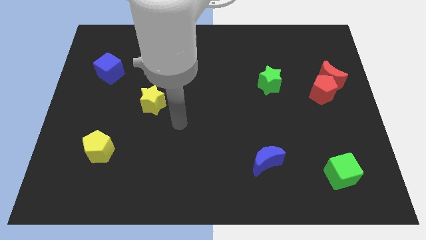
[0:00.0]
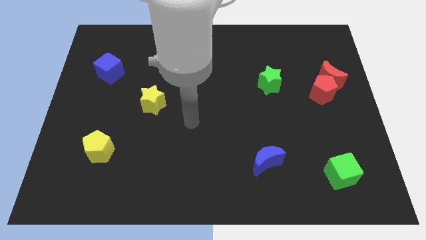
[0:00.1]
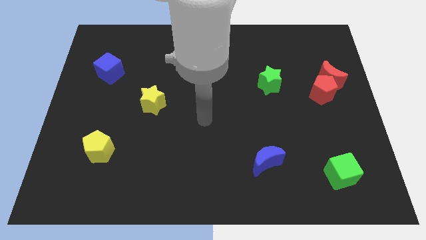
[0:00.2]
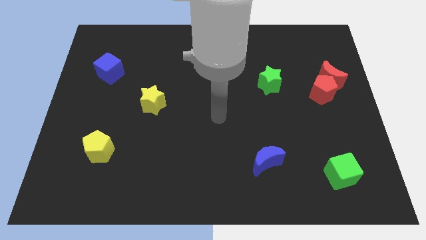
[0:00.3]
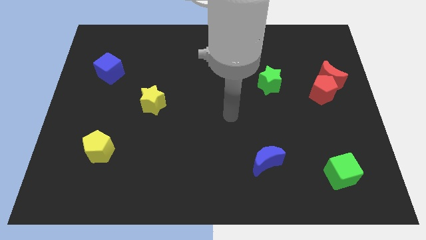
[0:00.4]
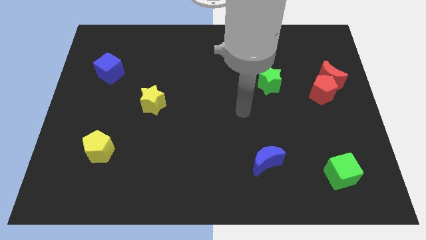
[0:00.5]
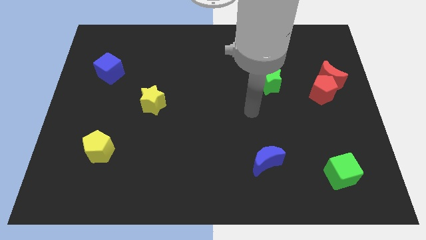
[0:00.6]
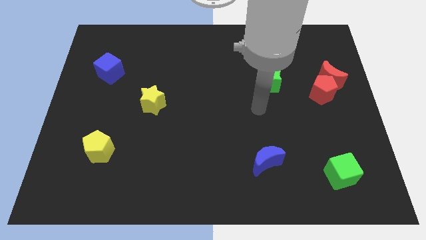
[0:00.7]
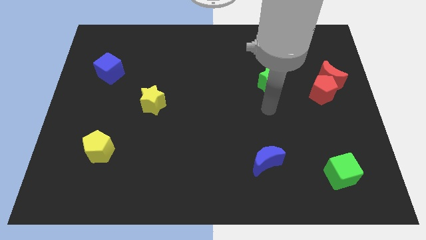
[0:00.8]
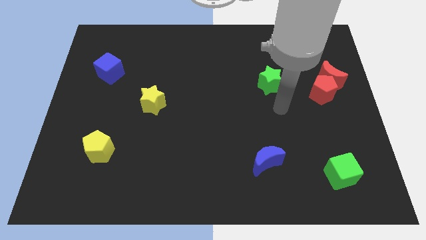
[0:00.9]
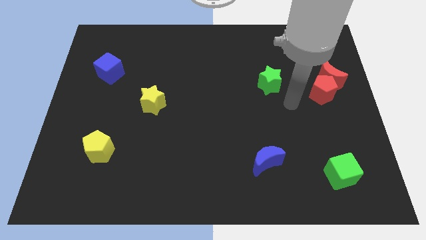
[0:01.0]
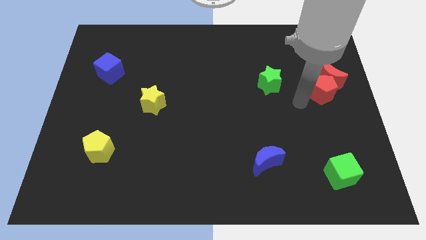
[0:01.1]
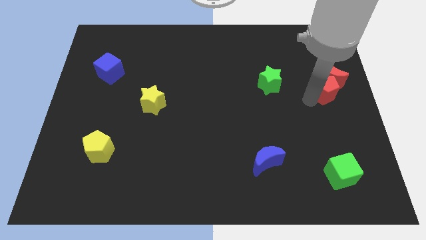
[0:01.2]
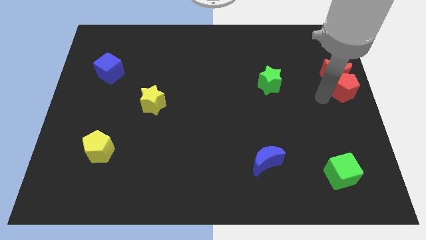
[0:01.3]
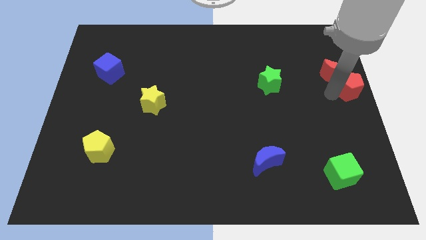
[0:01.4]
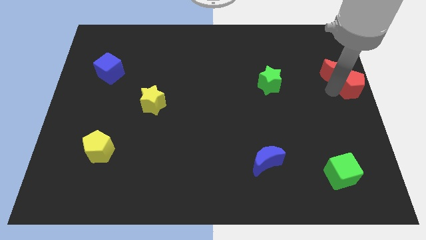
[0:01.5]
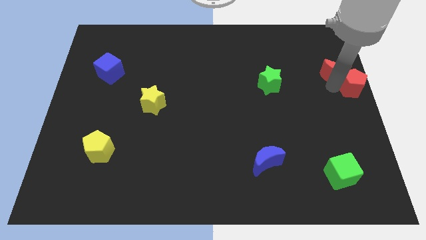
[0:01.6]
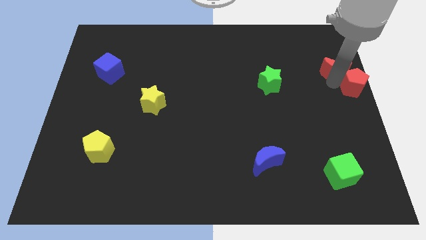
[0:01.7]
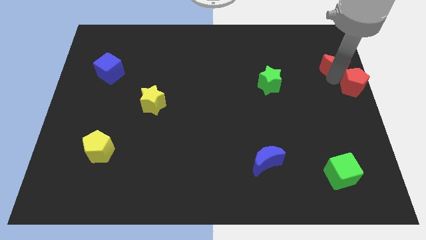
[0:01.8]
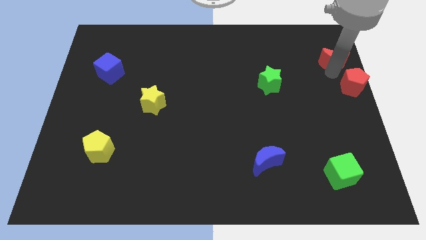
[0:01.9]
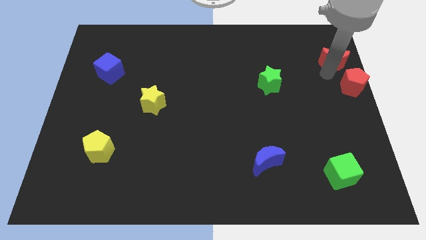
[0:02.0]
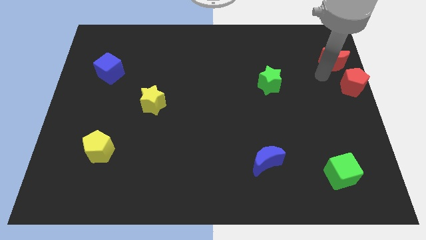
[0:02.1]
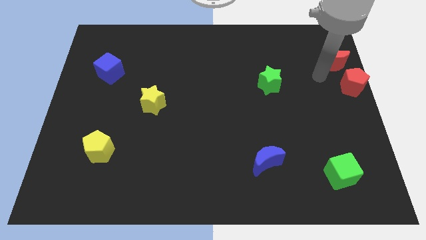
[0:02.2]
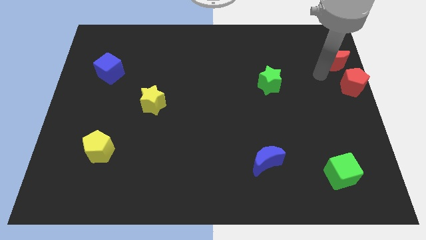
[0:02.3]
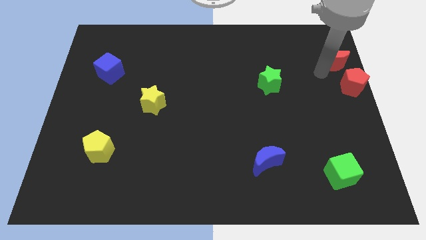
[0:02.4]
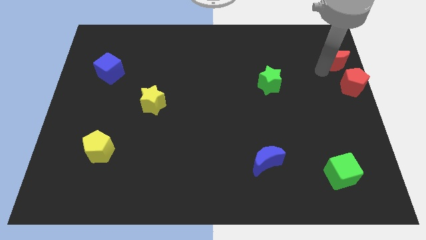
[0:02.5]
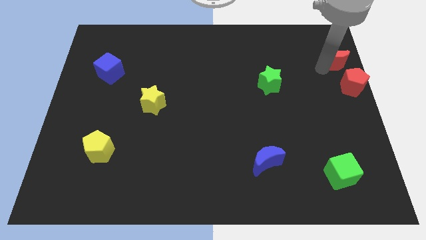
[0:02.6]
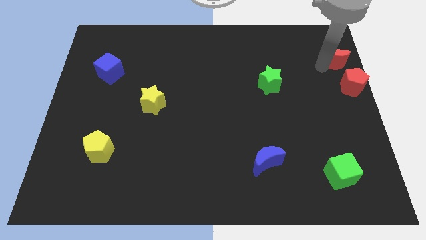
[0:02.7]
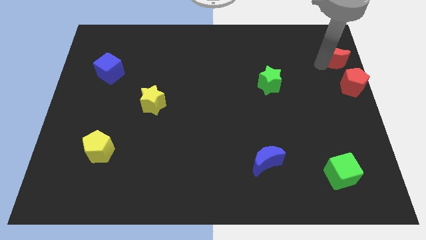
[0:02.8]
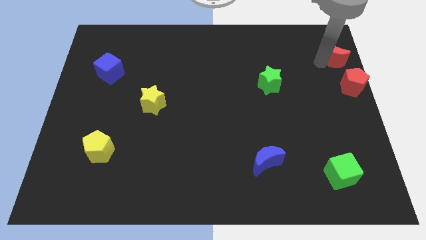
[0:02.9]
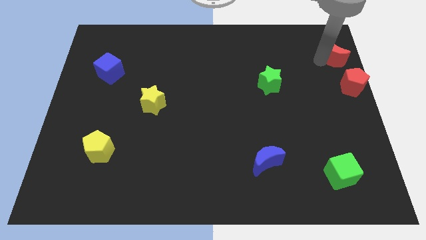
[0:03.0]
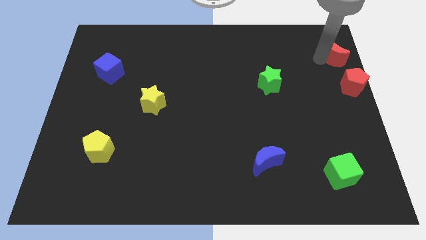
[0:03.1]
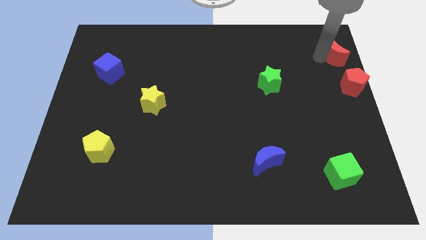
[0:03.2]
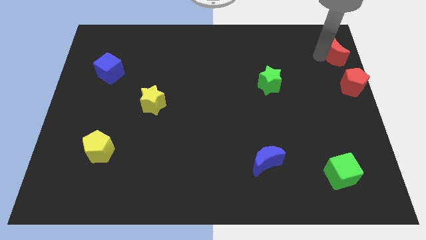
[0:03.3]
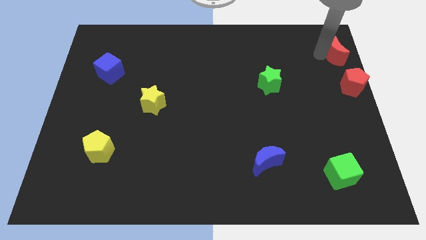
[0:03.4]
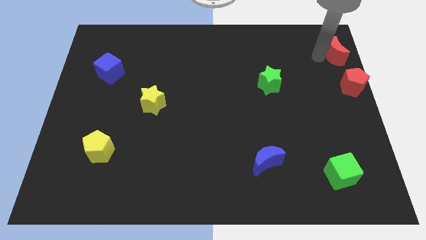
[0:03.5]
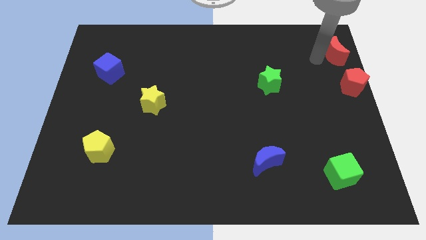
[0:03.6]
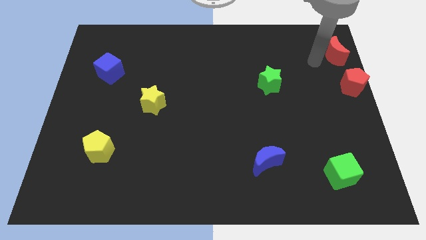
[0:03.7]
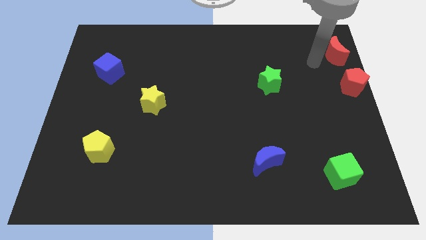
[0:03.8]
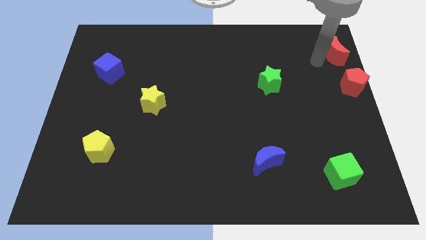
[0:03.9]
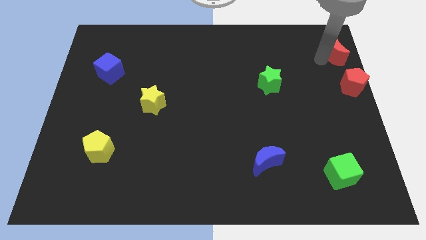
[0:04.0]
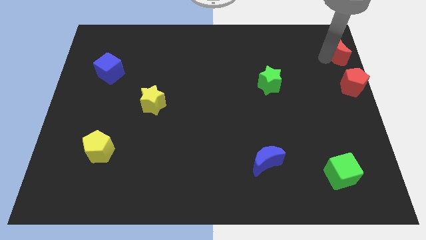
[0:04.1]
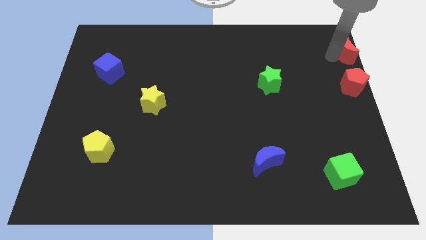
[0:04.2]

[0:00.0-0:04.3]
slide the red moon to the top right

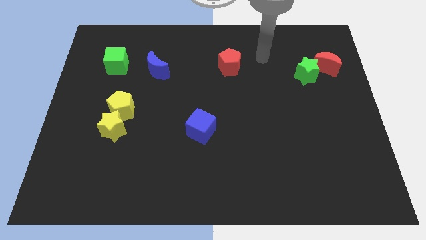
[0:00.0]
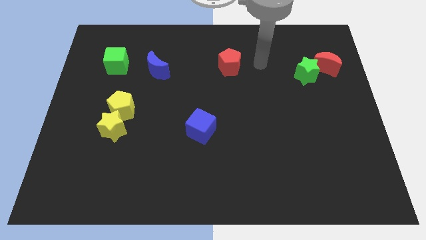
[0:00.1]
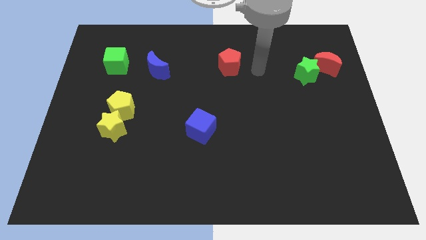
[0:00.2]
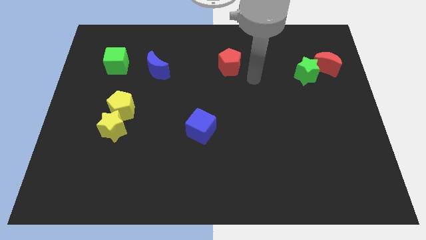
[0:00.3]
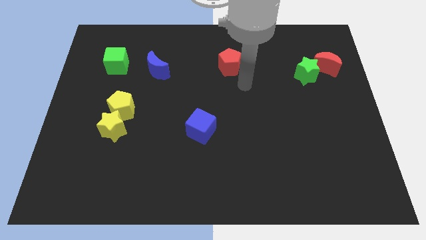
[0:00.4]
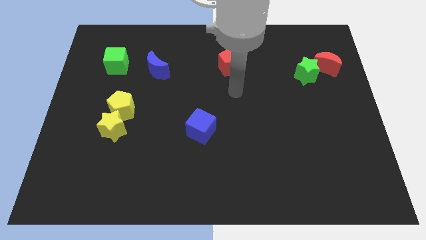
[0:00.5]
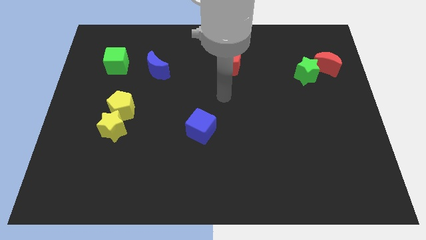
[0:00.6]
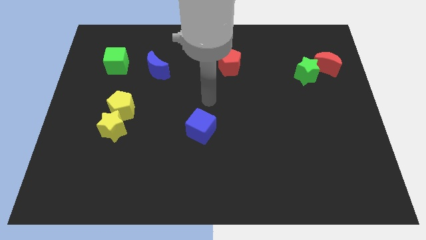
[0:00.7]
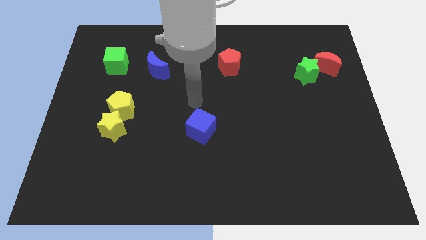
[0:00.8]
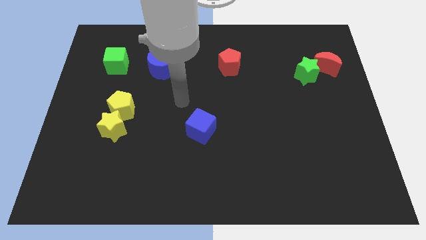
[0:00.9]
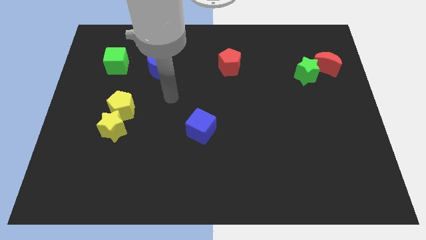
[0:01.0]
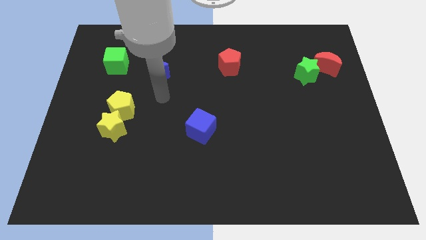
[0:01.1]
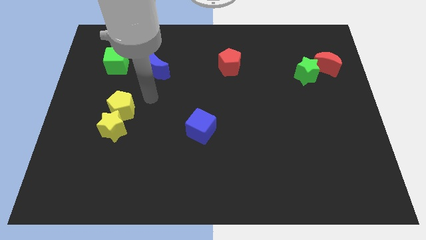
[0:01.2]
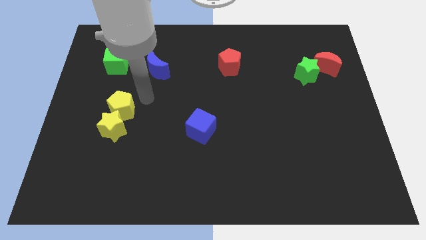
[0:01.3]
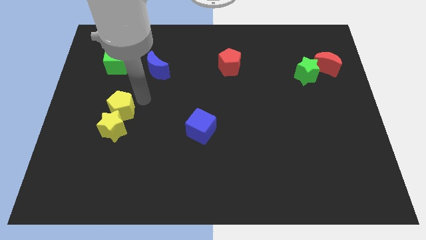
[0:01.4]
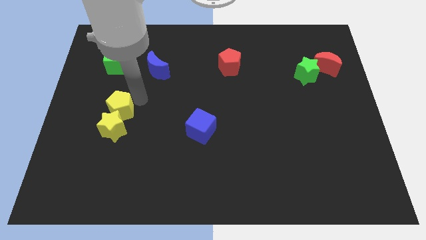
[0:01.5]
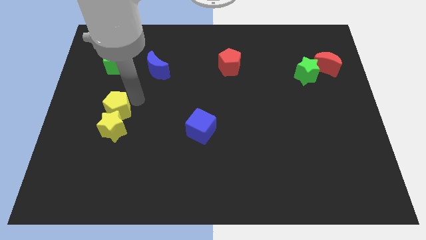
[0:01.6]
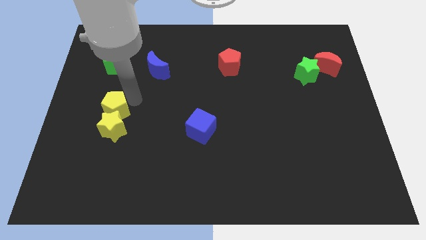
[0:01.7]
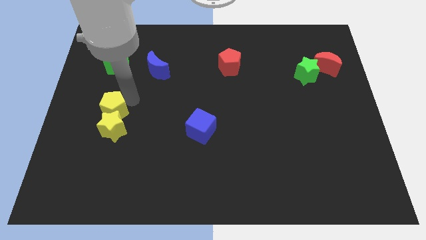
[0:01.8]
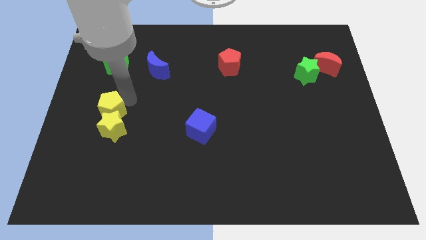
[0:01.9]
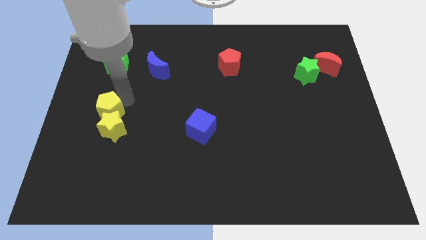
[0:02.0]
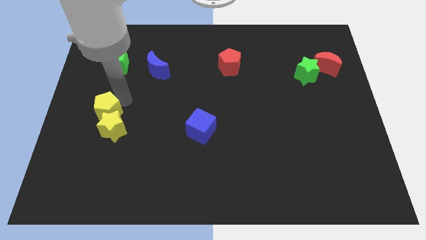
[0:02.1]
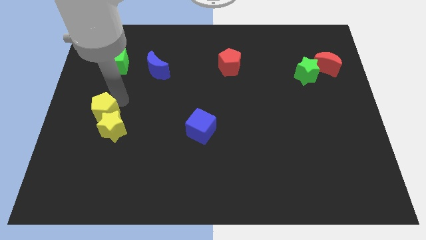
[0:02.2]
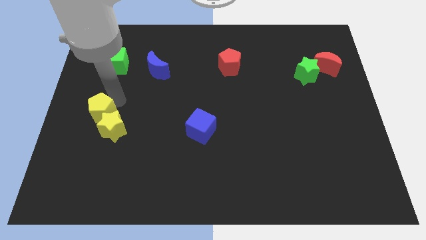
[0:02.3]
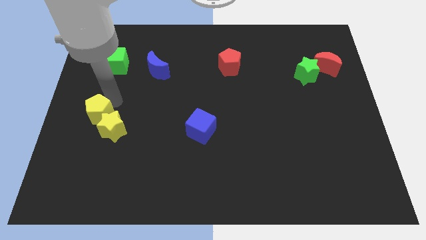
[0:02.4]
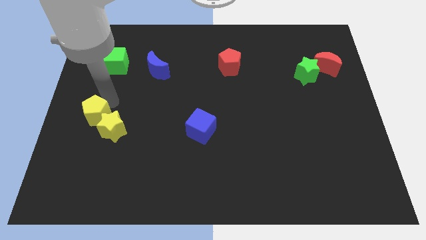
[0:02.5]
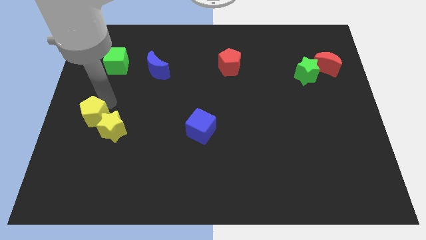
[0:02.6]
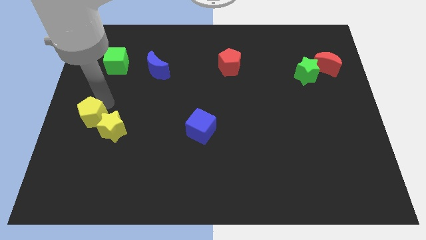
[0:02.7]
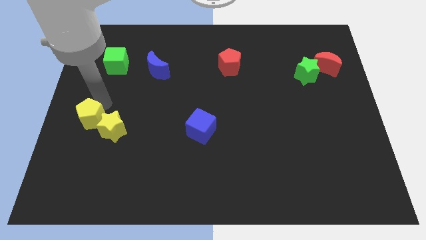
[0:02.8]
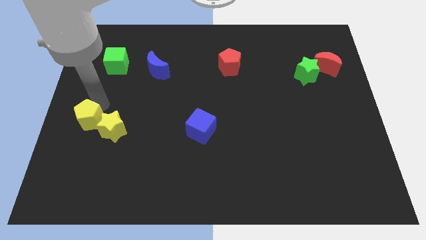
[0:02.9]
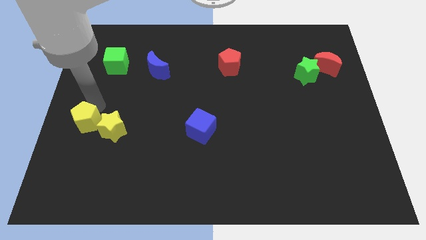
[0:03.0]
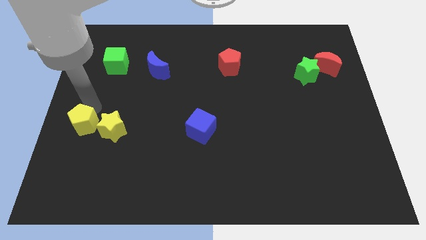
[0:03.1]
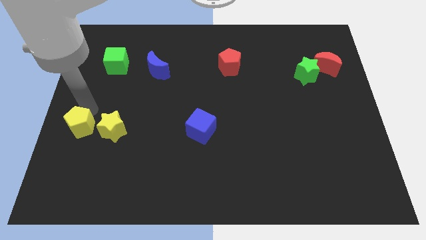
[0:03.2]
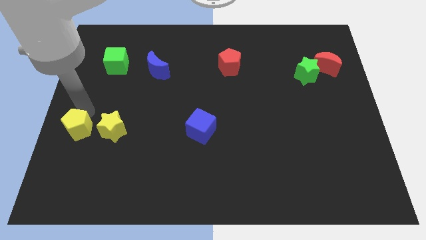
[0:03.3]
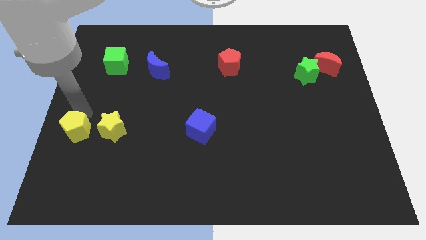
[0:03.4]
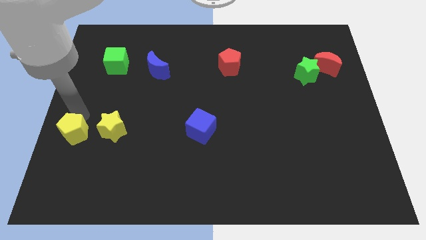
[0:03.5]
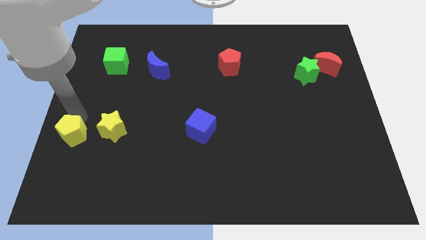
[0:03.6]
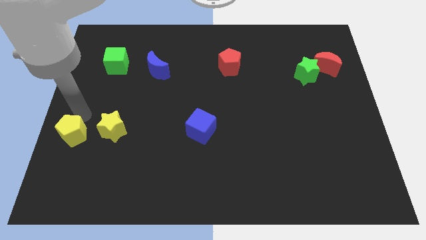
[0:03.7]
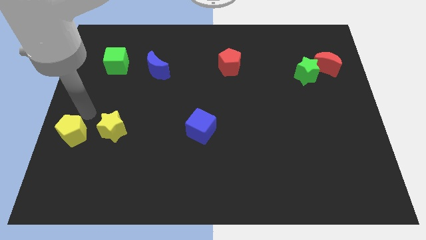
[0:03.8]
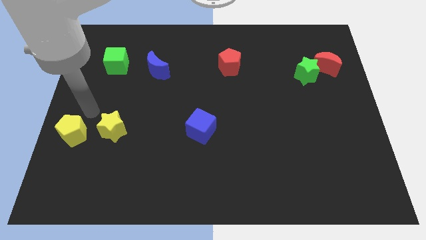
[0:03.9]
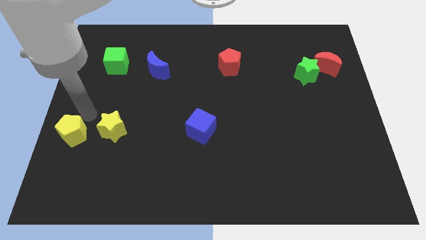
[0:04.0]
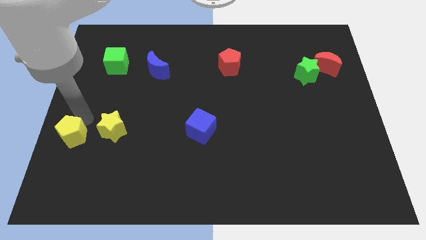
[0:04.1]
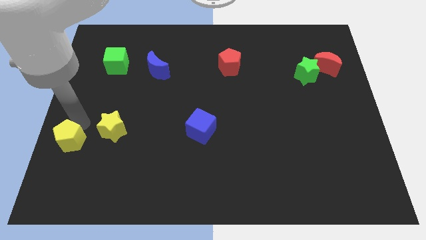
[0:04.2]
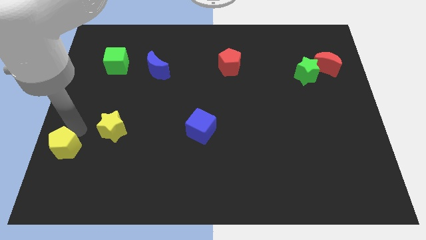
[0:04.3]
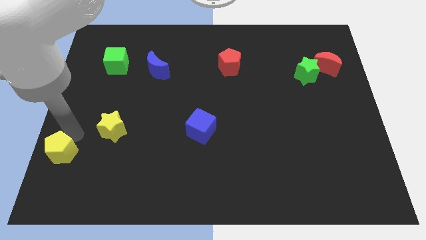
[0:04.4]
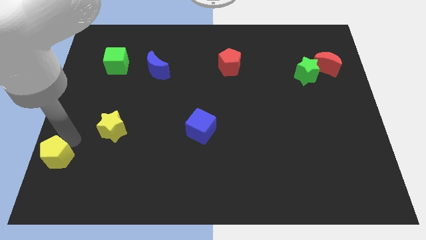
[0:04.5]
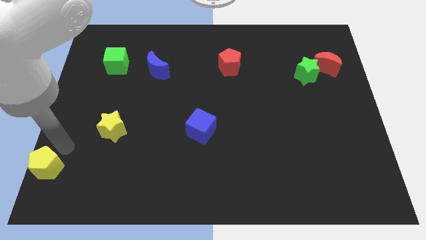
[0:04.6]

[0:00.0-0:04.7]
slide the yellow pentagon to the bottom left
